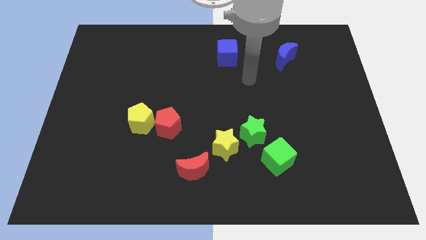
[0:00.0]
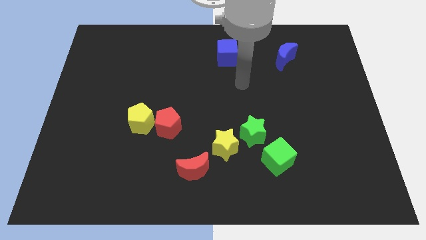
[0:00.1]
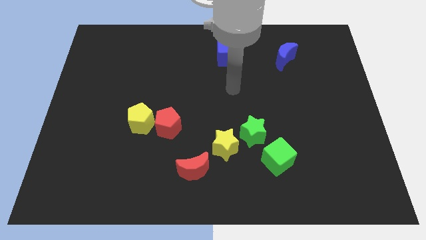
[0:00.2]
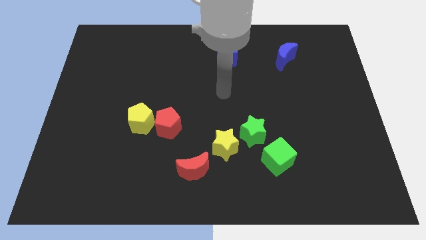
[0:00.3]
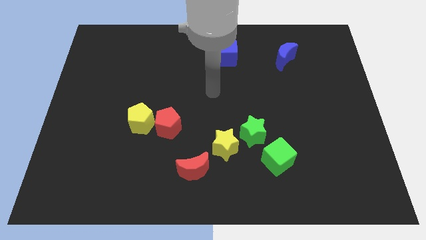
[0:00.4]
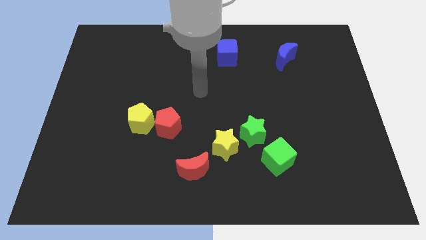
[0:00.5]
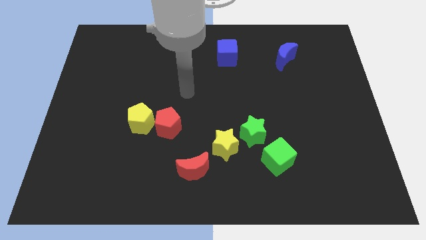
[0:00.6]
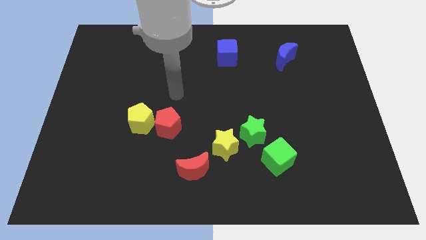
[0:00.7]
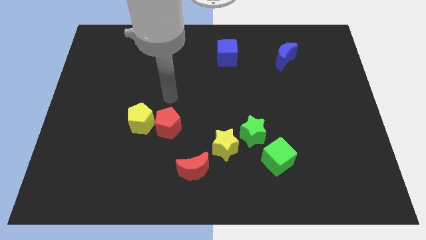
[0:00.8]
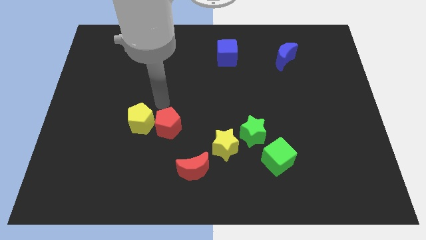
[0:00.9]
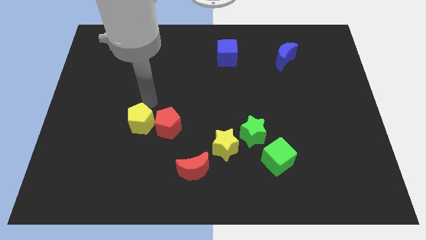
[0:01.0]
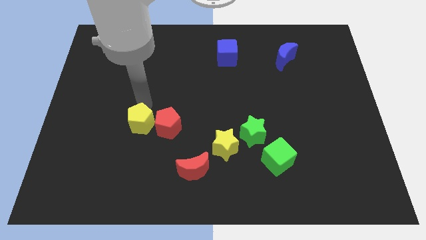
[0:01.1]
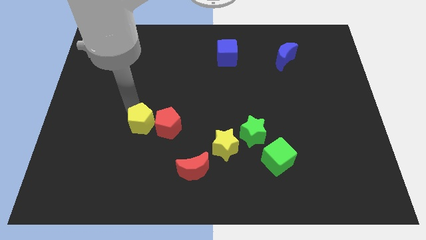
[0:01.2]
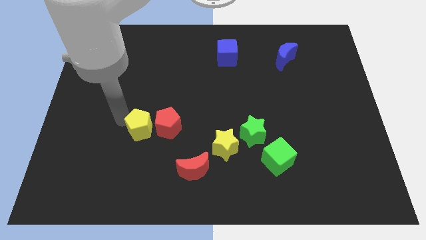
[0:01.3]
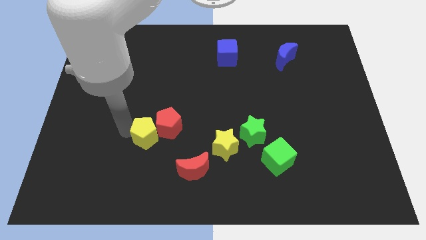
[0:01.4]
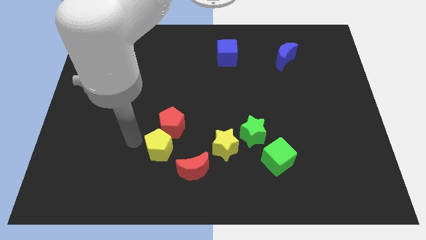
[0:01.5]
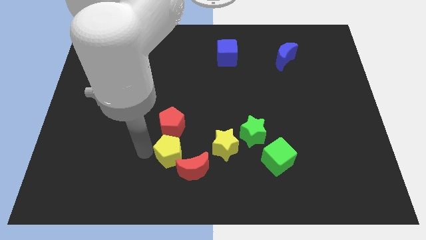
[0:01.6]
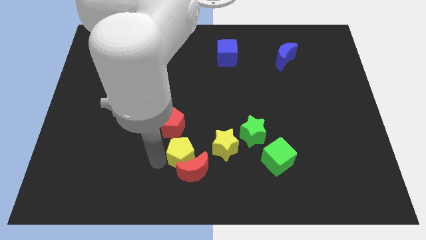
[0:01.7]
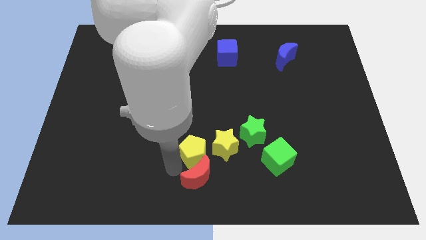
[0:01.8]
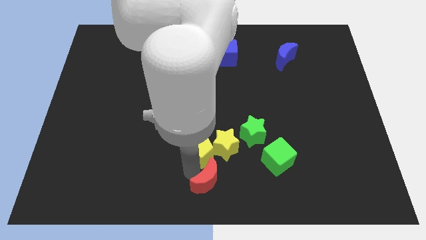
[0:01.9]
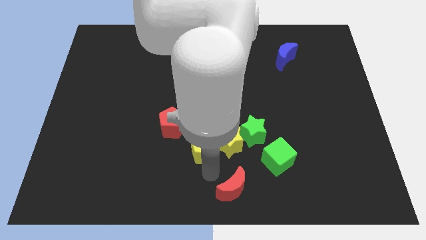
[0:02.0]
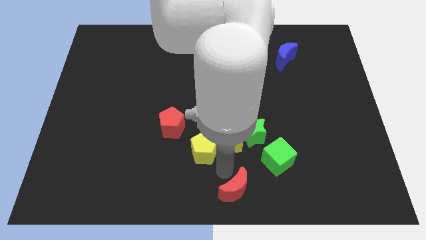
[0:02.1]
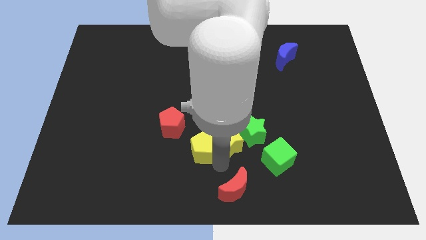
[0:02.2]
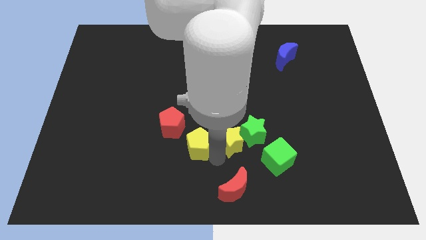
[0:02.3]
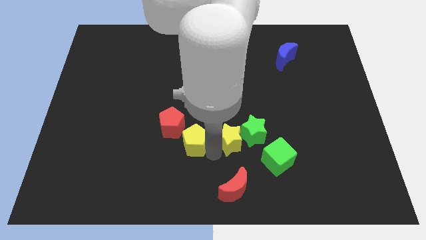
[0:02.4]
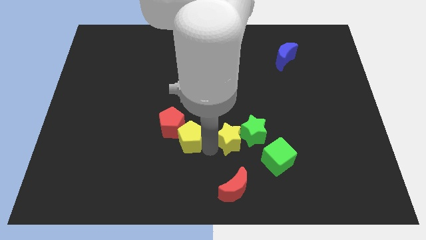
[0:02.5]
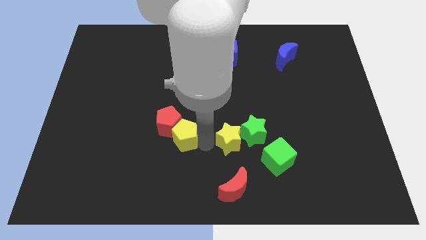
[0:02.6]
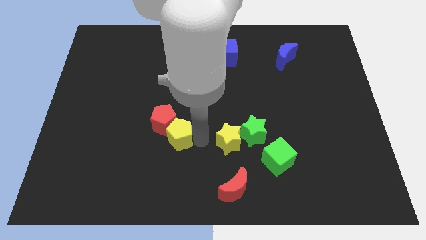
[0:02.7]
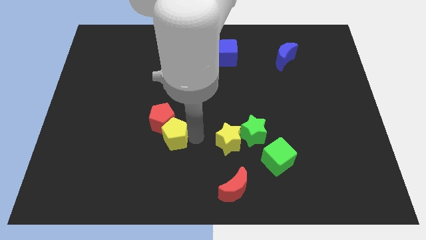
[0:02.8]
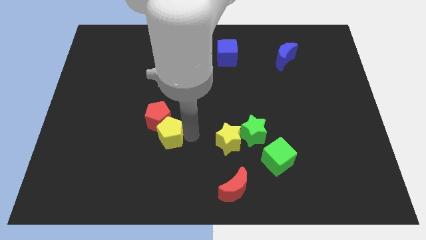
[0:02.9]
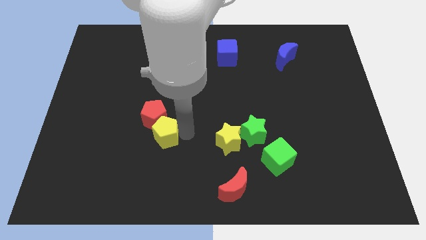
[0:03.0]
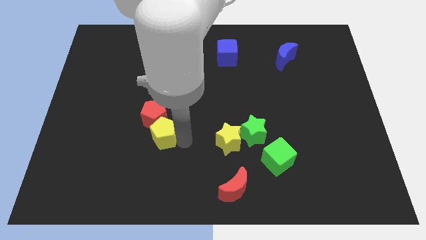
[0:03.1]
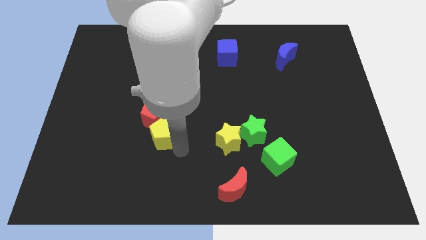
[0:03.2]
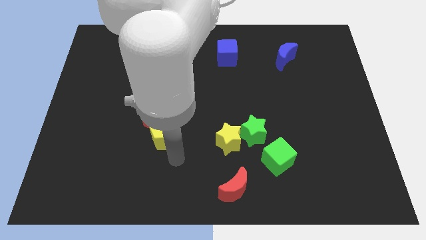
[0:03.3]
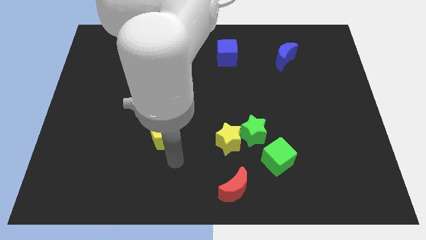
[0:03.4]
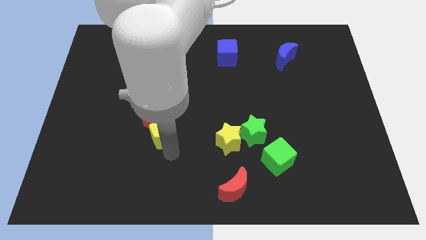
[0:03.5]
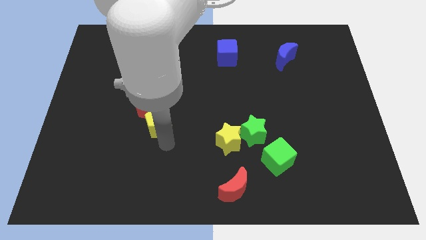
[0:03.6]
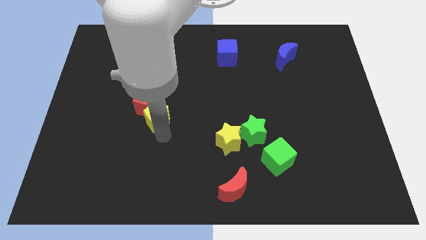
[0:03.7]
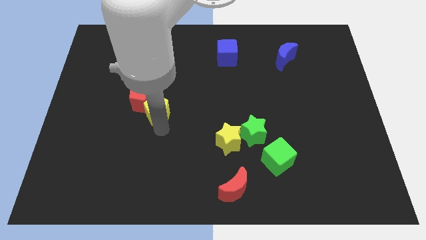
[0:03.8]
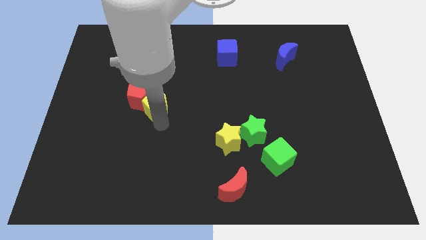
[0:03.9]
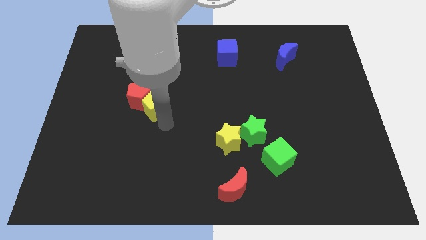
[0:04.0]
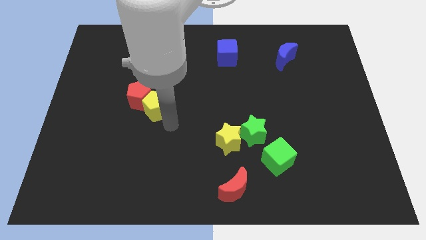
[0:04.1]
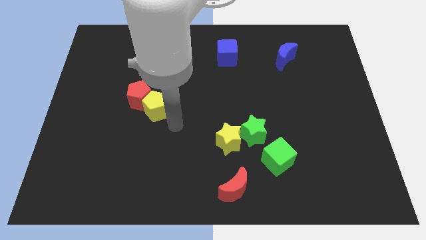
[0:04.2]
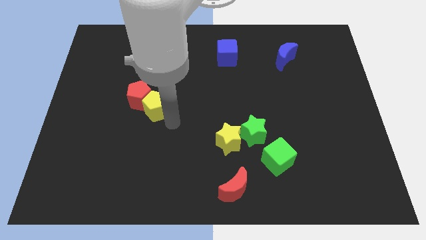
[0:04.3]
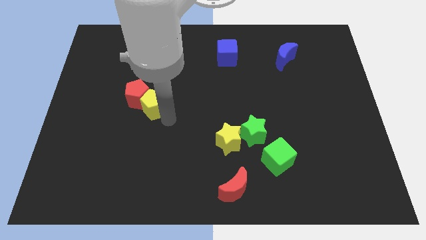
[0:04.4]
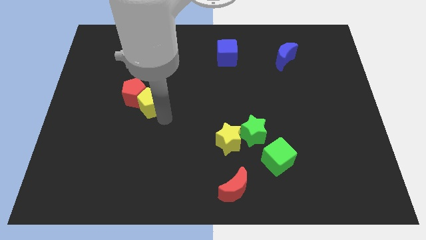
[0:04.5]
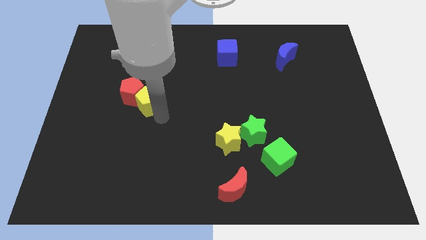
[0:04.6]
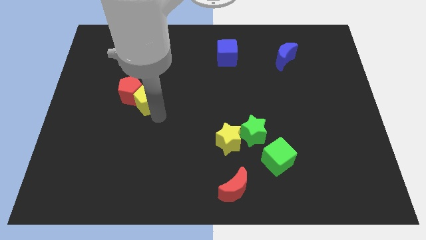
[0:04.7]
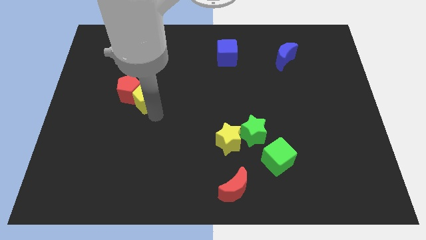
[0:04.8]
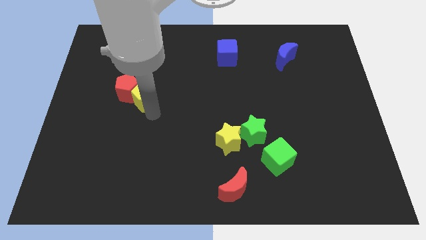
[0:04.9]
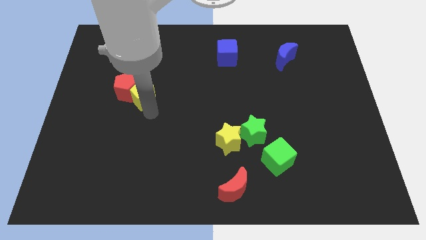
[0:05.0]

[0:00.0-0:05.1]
push the yellow pentagon upwards a little

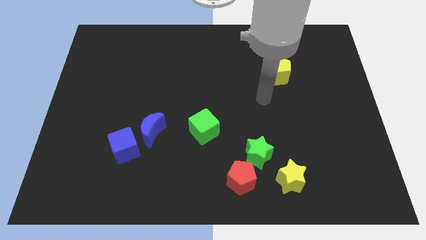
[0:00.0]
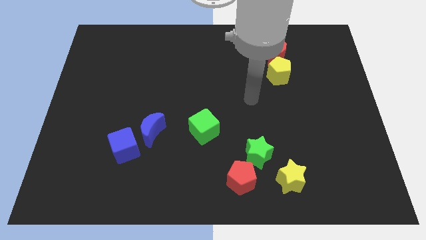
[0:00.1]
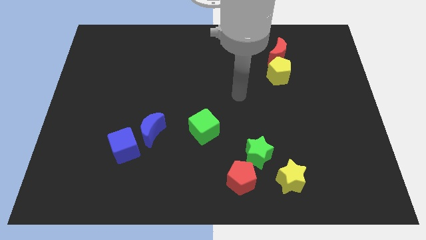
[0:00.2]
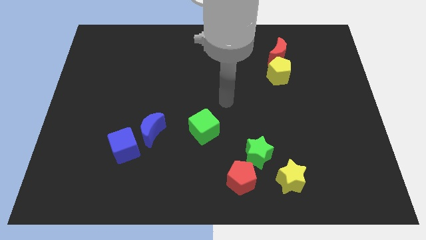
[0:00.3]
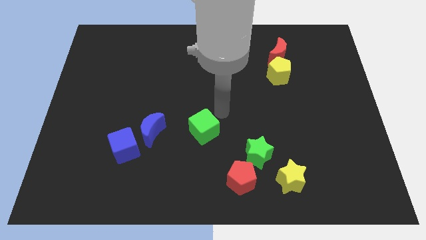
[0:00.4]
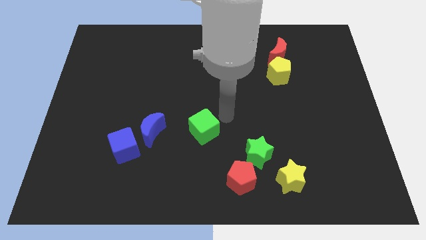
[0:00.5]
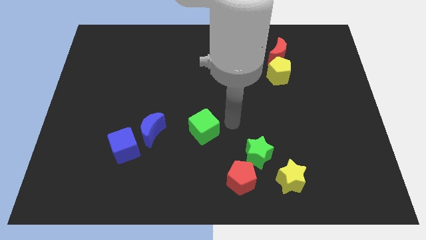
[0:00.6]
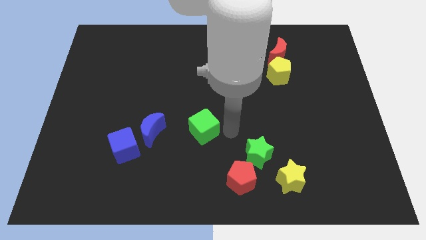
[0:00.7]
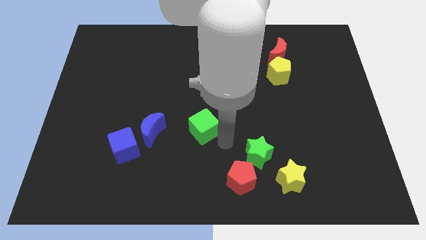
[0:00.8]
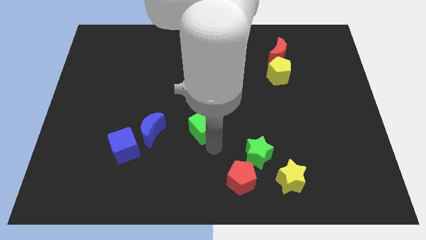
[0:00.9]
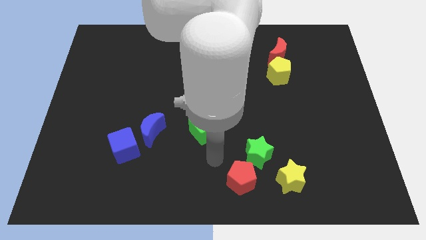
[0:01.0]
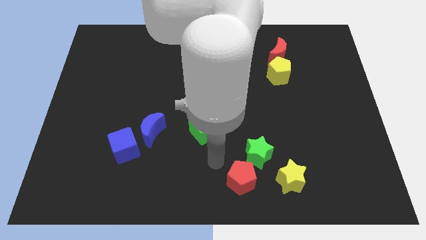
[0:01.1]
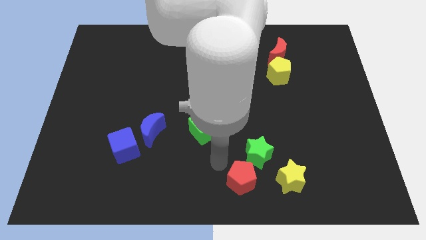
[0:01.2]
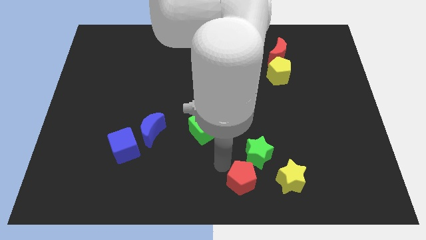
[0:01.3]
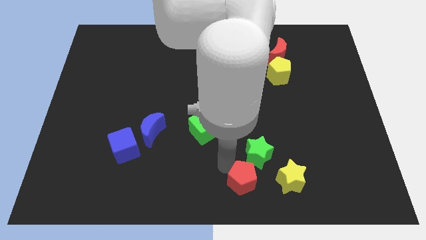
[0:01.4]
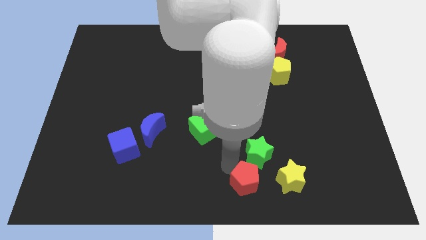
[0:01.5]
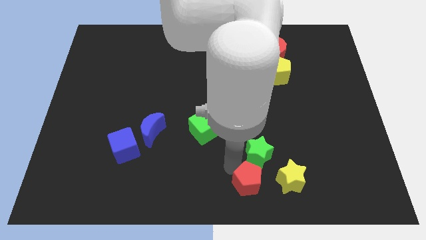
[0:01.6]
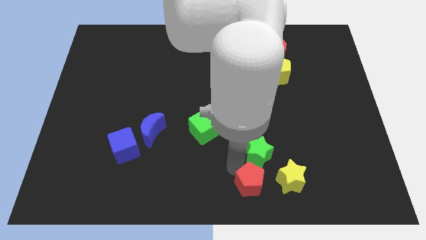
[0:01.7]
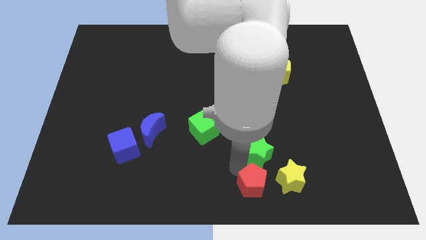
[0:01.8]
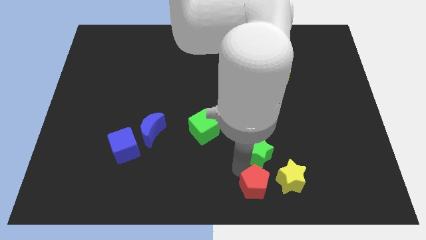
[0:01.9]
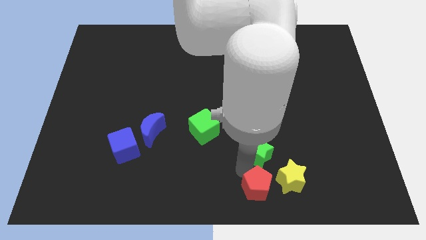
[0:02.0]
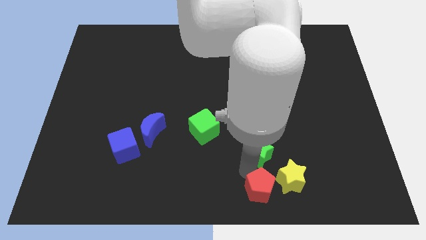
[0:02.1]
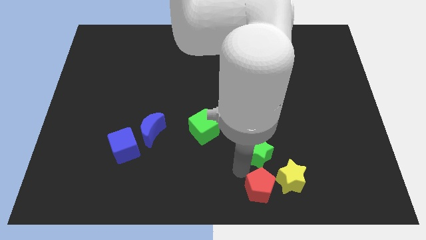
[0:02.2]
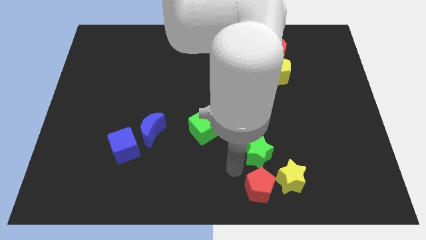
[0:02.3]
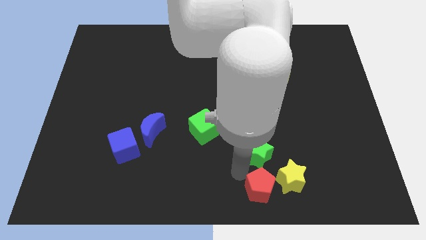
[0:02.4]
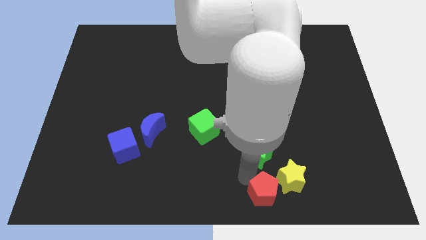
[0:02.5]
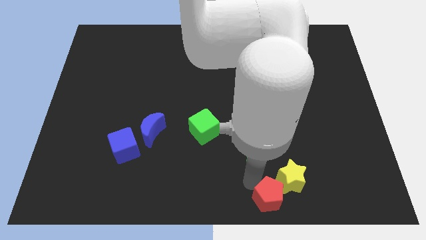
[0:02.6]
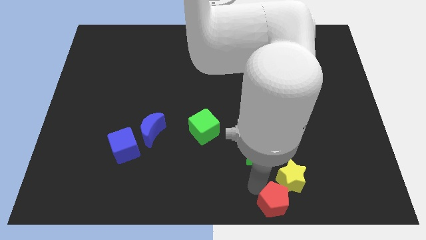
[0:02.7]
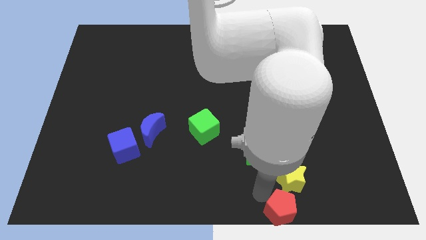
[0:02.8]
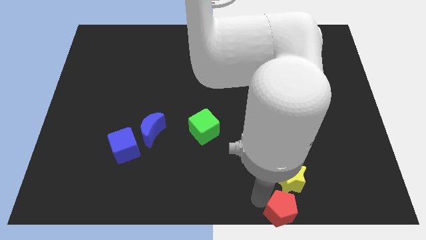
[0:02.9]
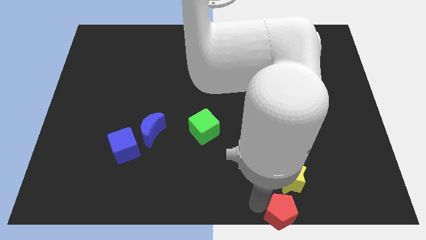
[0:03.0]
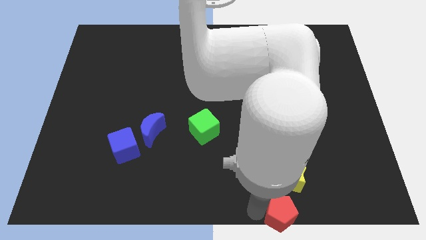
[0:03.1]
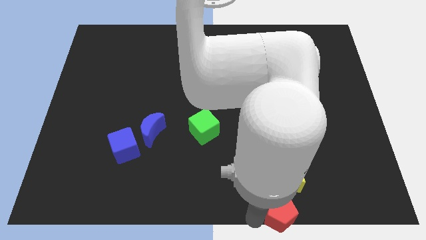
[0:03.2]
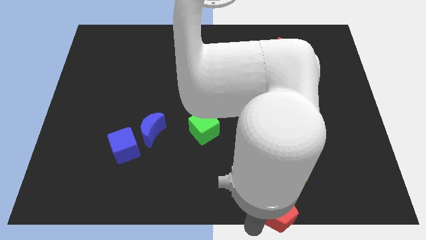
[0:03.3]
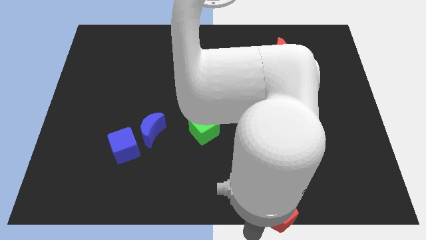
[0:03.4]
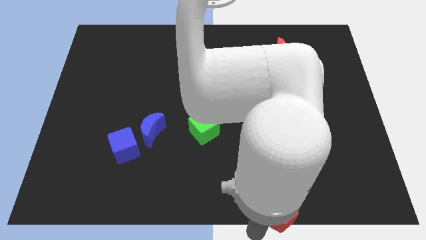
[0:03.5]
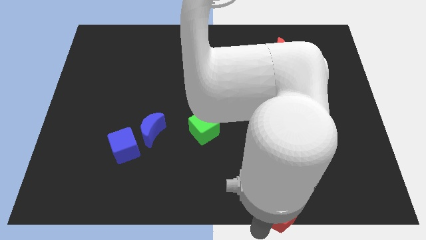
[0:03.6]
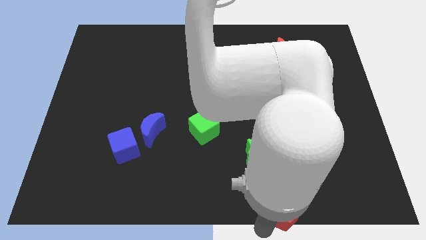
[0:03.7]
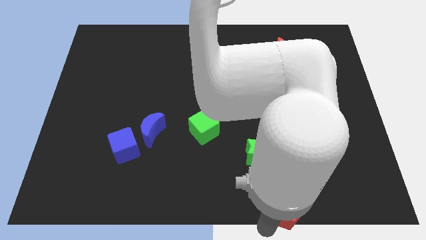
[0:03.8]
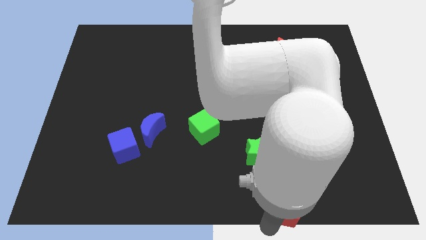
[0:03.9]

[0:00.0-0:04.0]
slightly move the red pentagon to the right
